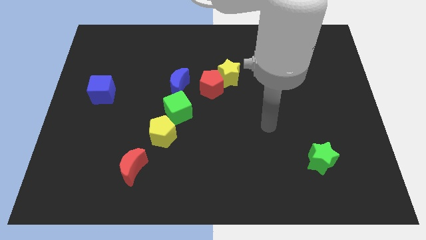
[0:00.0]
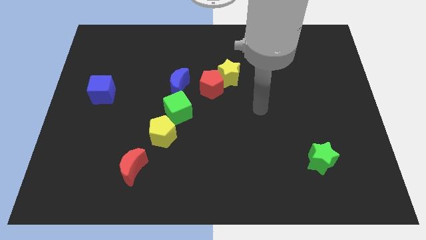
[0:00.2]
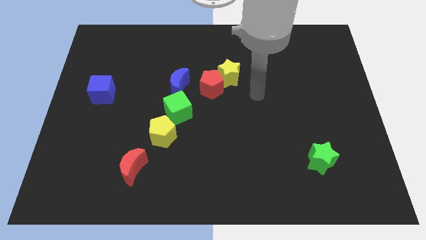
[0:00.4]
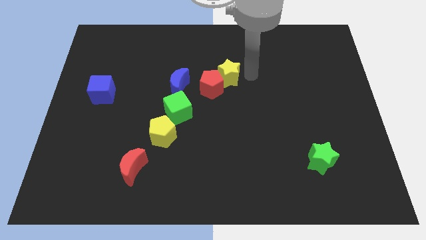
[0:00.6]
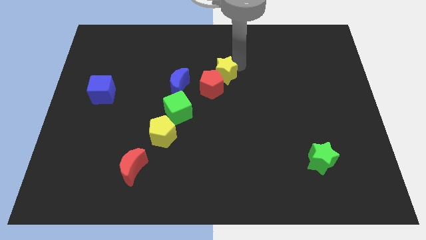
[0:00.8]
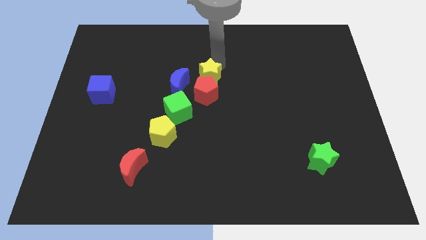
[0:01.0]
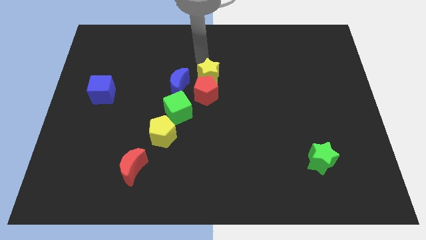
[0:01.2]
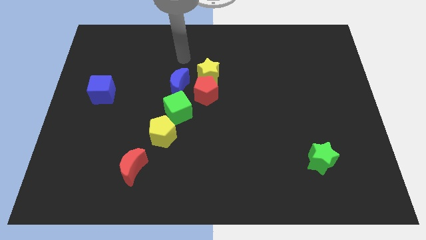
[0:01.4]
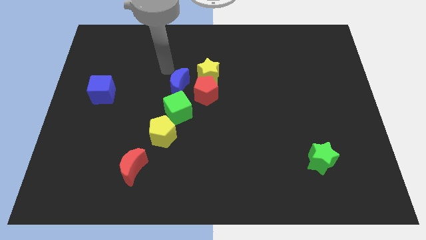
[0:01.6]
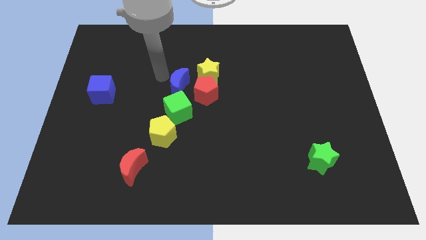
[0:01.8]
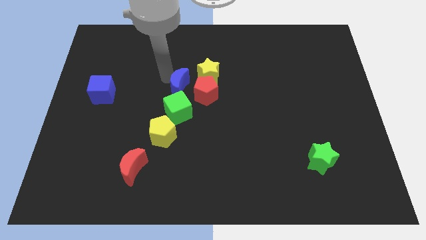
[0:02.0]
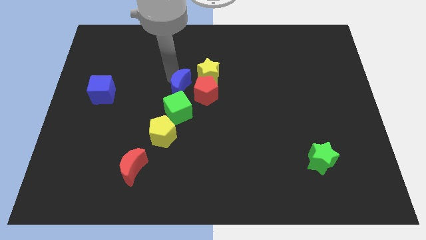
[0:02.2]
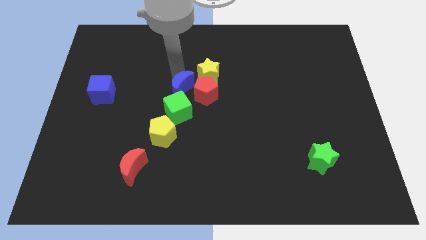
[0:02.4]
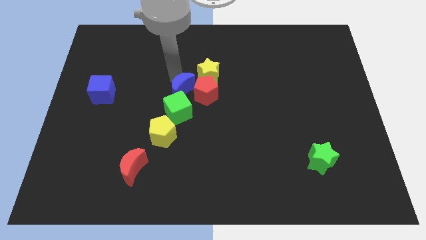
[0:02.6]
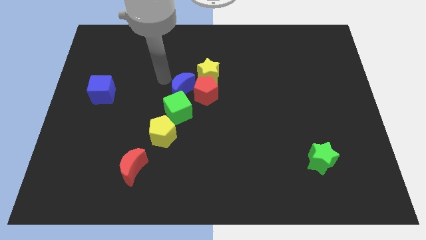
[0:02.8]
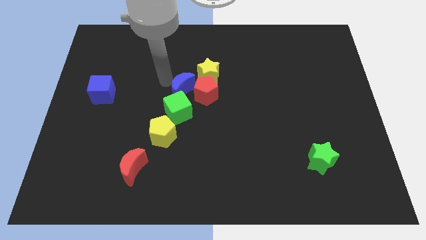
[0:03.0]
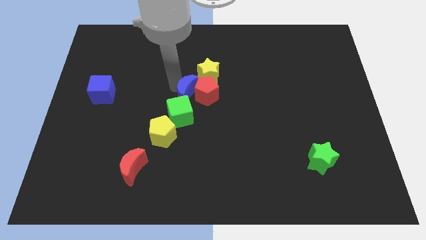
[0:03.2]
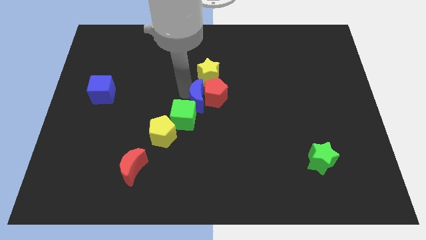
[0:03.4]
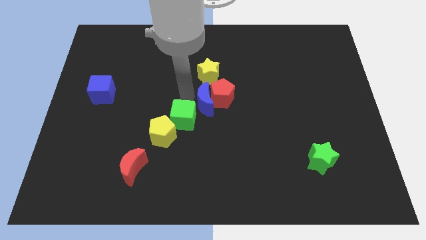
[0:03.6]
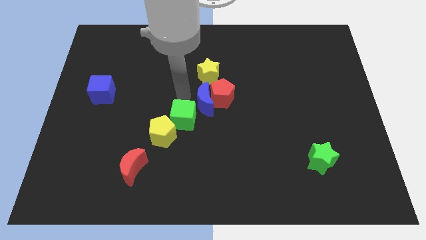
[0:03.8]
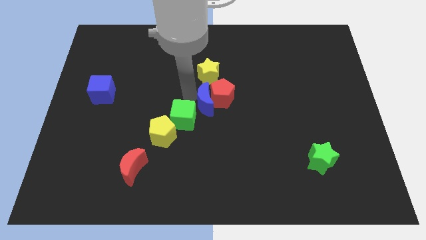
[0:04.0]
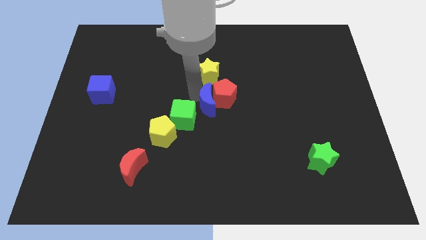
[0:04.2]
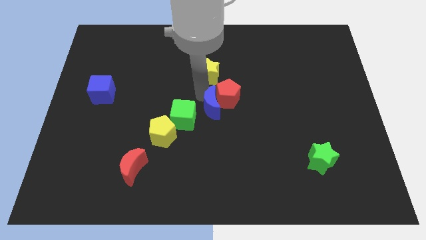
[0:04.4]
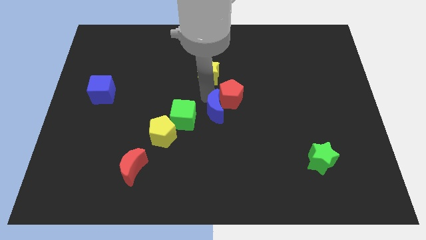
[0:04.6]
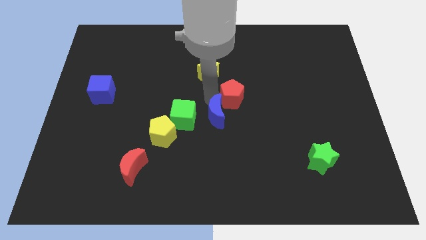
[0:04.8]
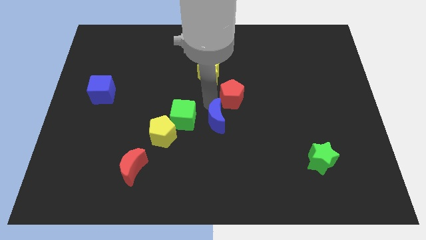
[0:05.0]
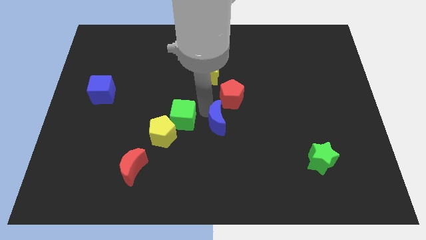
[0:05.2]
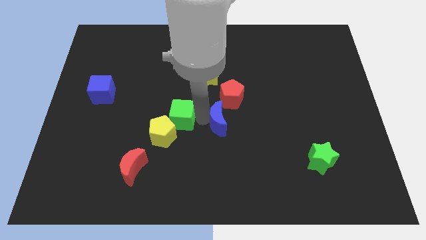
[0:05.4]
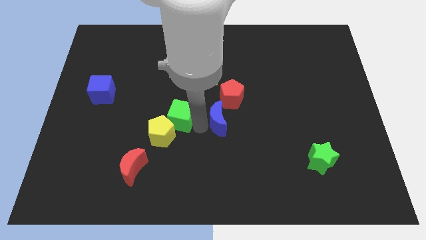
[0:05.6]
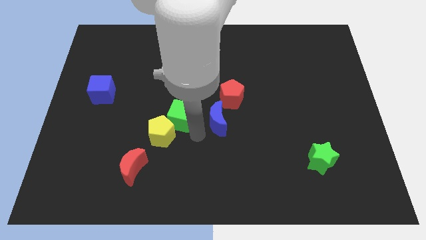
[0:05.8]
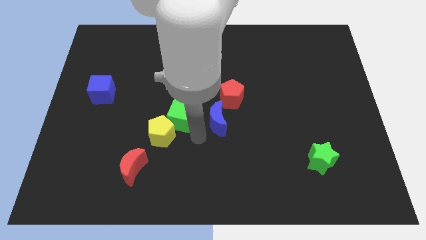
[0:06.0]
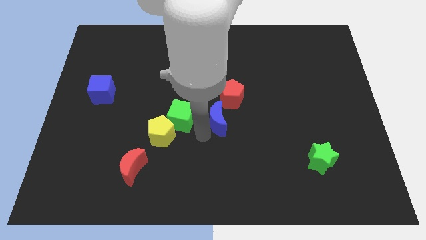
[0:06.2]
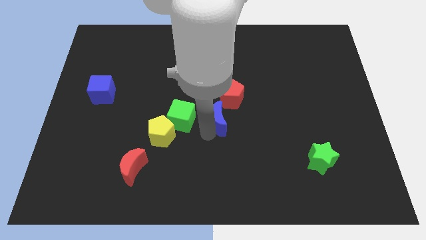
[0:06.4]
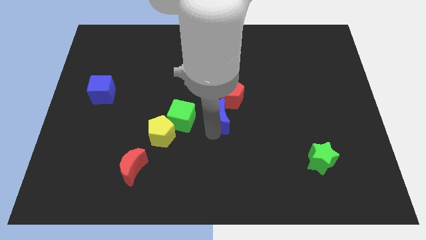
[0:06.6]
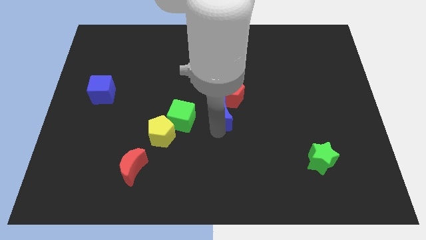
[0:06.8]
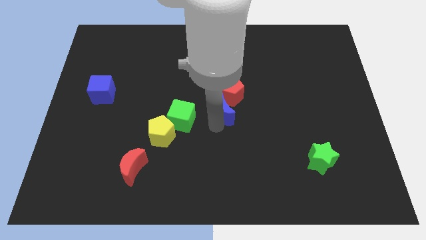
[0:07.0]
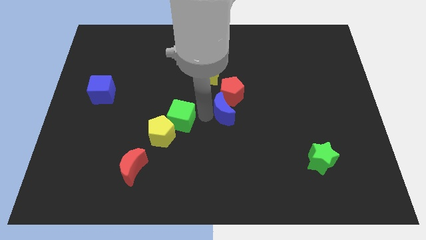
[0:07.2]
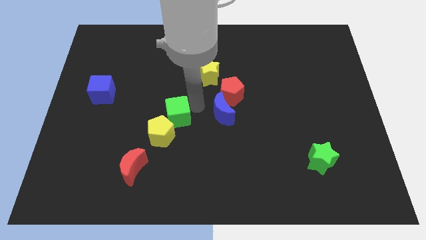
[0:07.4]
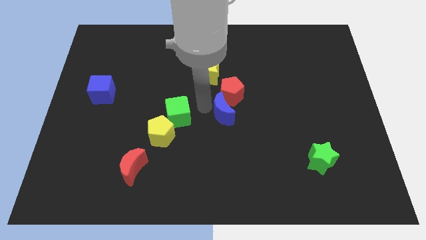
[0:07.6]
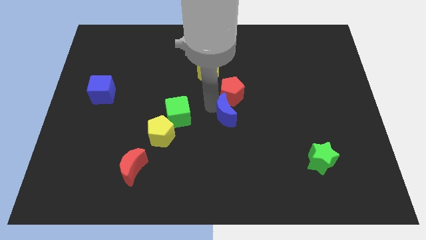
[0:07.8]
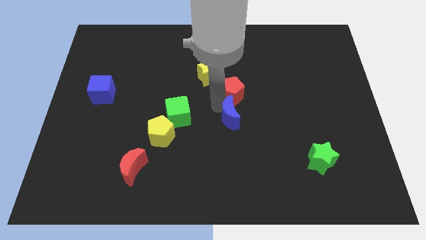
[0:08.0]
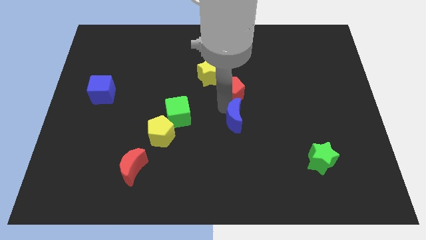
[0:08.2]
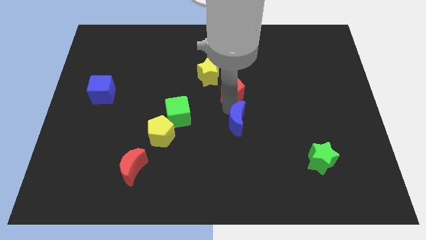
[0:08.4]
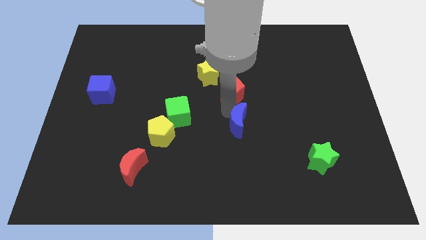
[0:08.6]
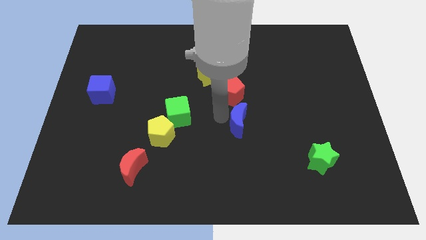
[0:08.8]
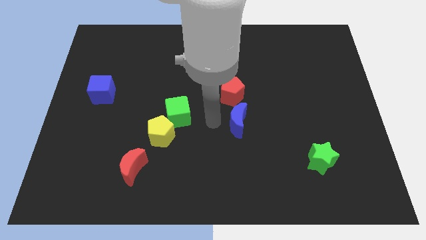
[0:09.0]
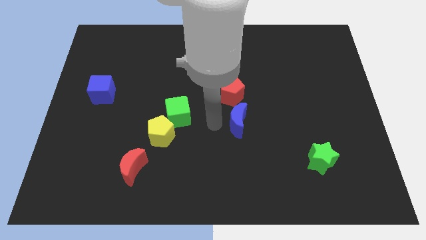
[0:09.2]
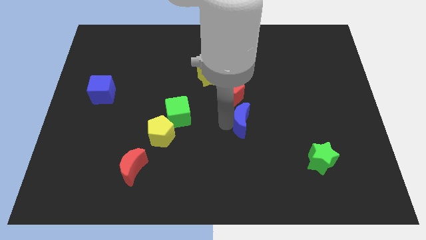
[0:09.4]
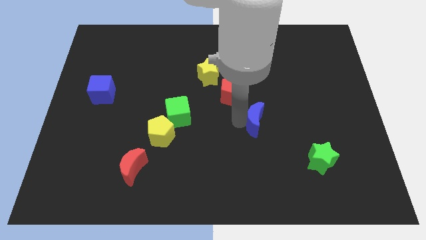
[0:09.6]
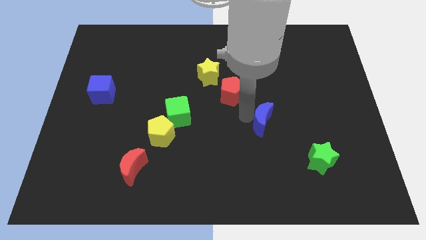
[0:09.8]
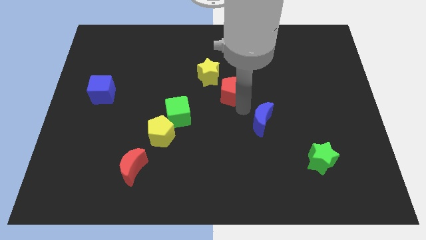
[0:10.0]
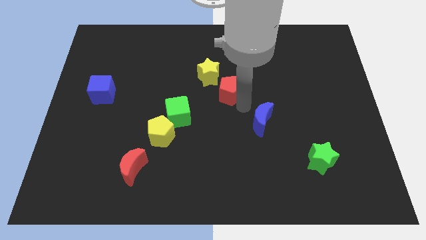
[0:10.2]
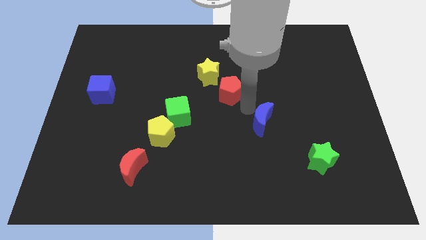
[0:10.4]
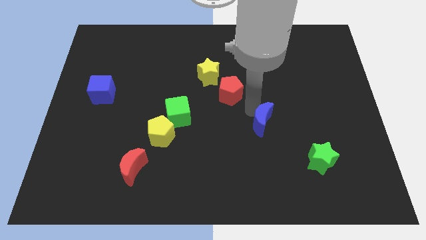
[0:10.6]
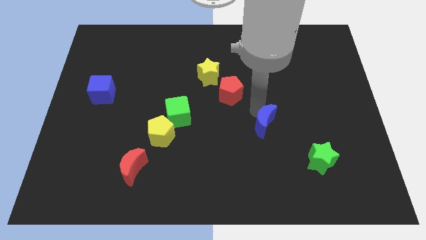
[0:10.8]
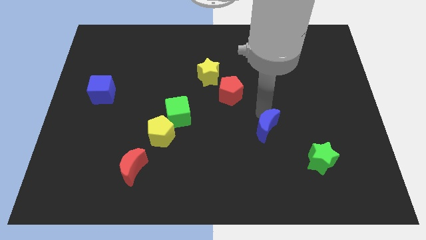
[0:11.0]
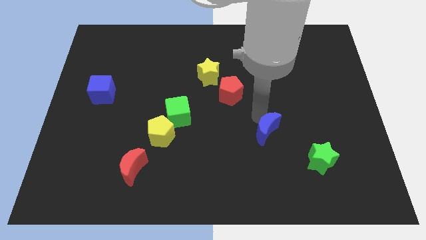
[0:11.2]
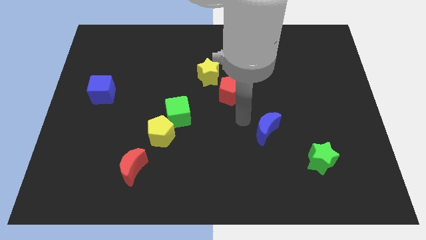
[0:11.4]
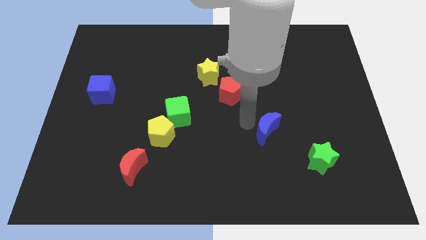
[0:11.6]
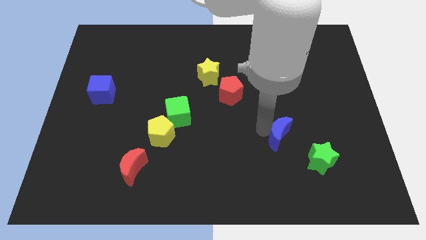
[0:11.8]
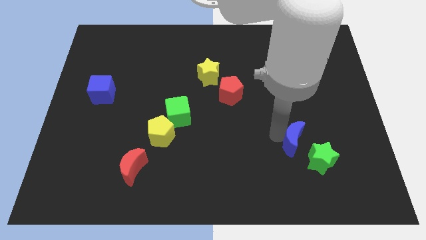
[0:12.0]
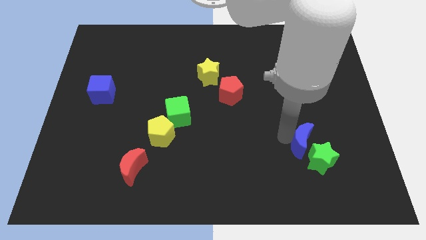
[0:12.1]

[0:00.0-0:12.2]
move the blue moon next to the green star

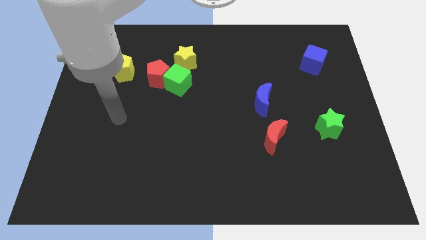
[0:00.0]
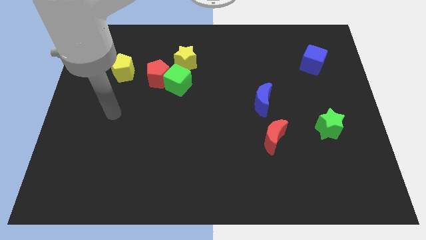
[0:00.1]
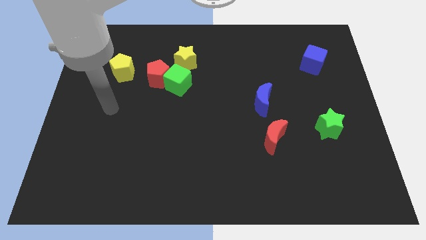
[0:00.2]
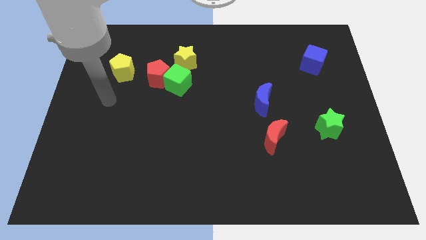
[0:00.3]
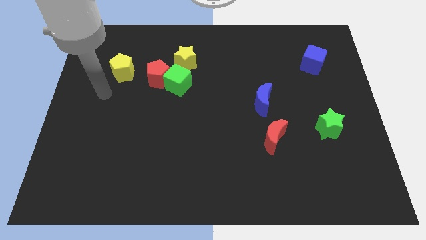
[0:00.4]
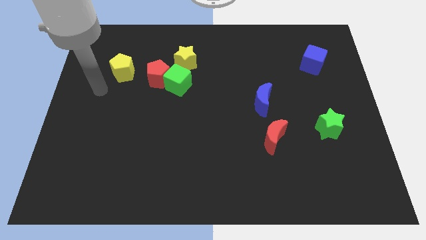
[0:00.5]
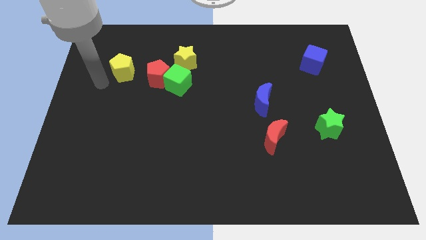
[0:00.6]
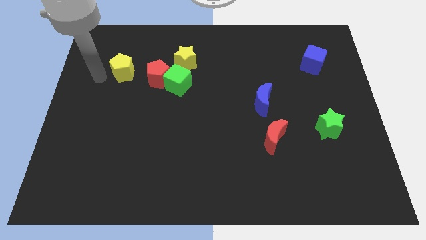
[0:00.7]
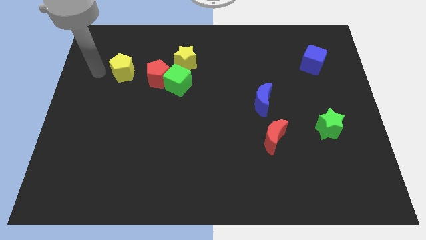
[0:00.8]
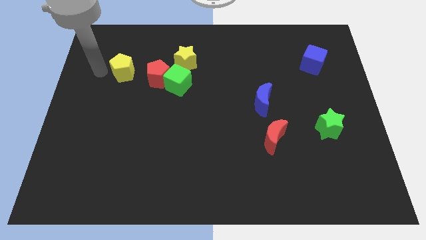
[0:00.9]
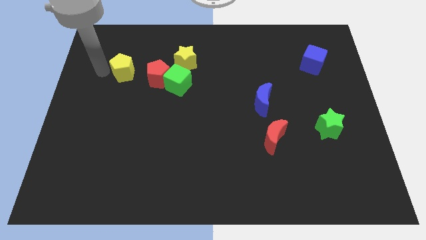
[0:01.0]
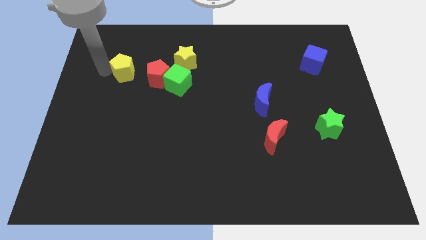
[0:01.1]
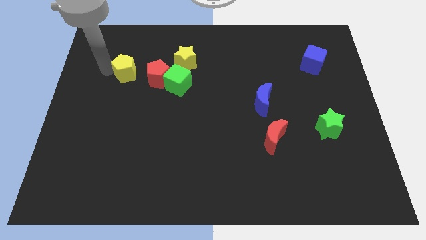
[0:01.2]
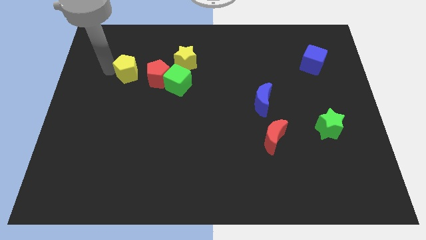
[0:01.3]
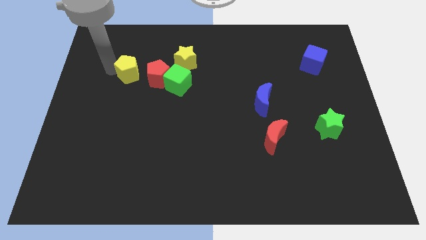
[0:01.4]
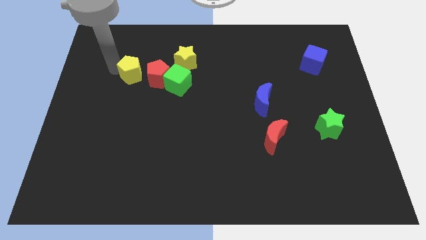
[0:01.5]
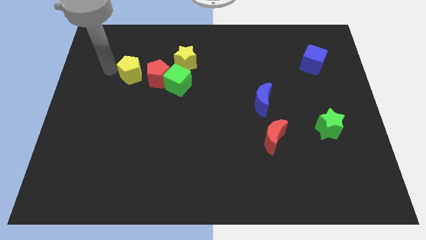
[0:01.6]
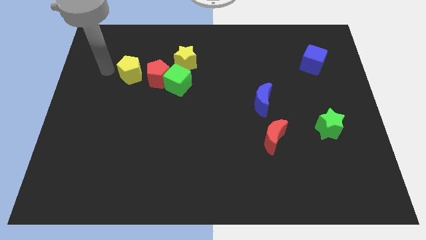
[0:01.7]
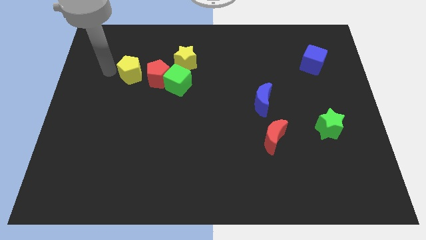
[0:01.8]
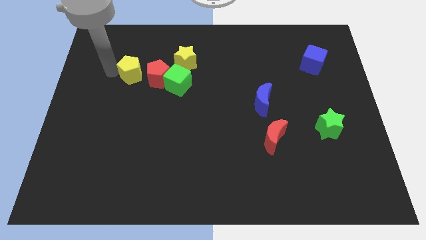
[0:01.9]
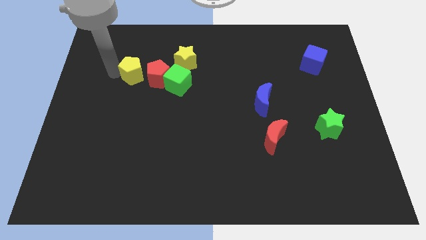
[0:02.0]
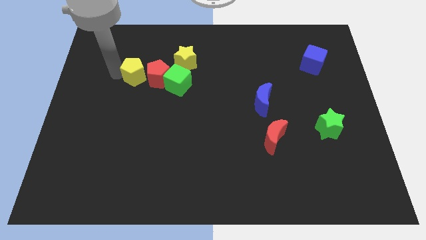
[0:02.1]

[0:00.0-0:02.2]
slide the yellow pentagon close to the red pentagon
